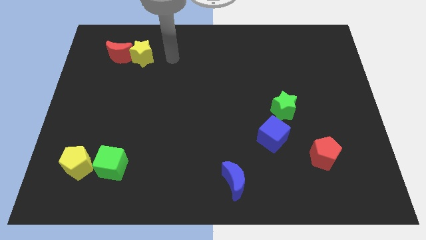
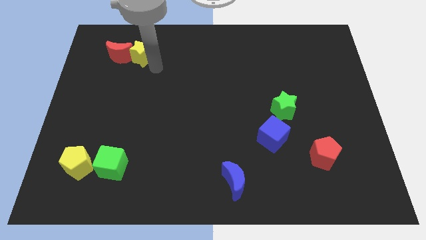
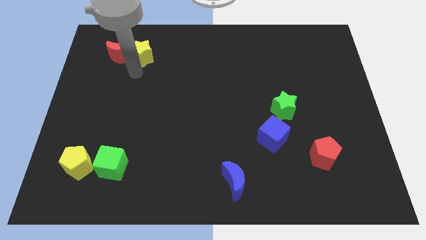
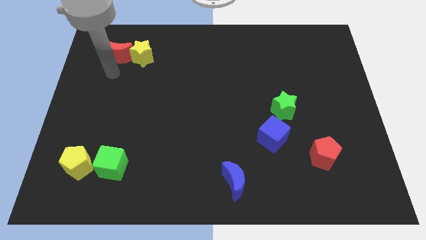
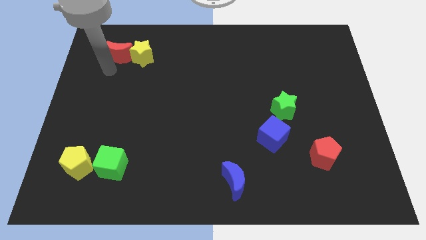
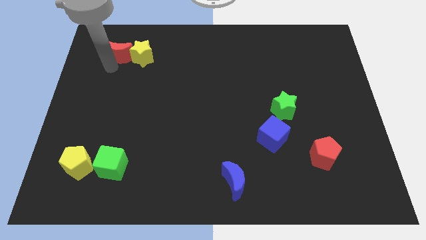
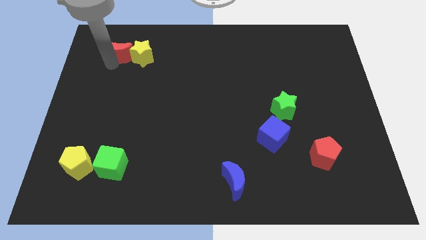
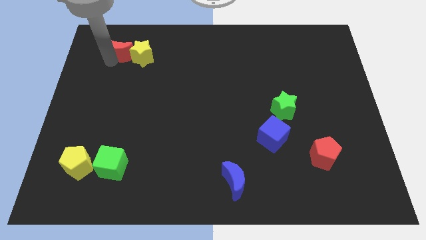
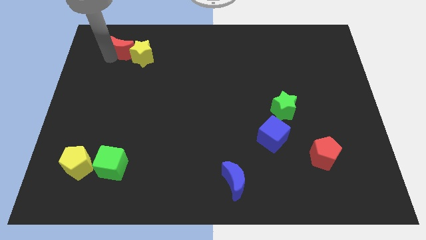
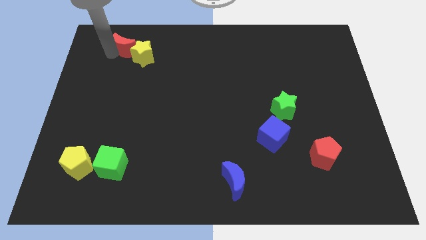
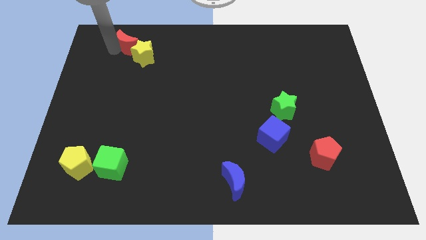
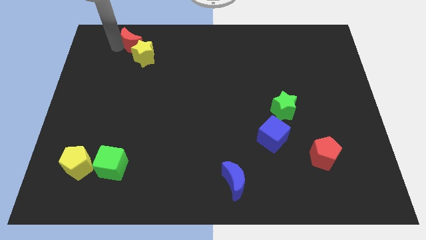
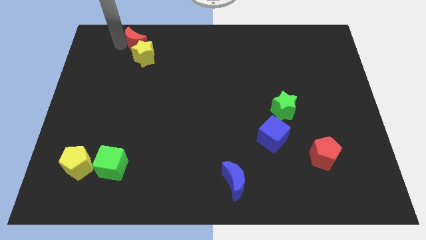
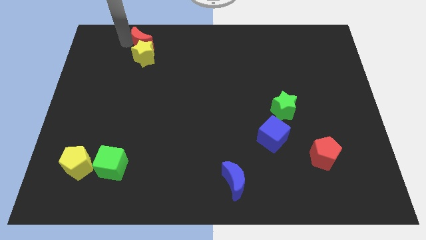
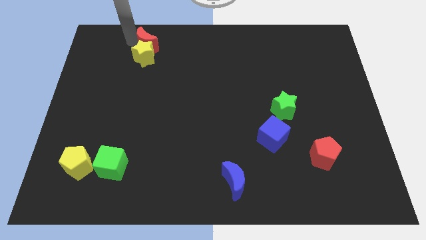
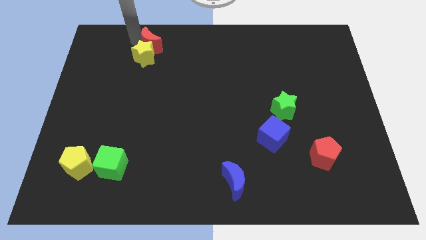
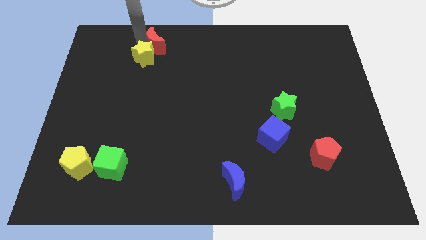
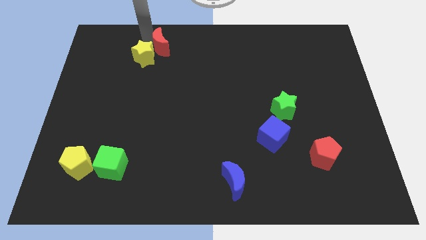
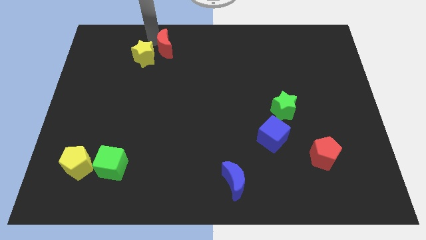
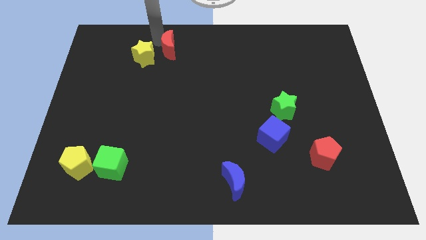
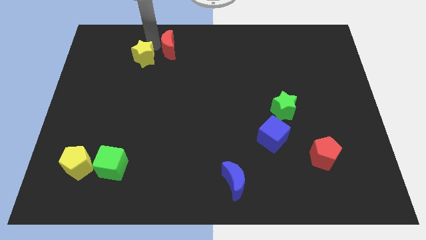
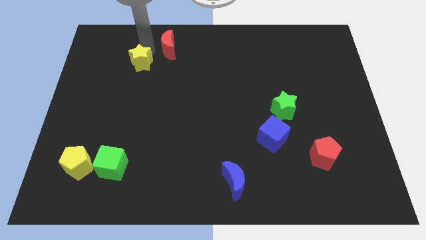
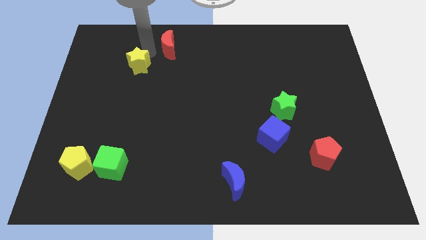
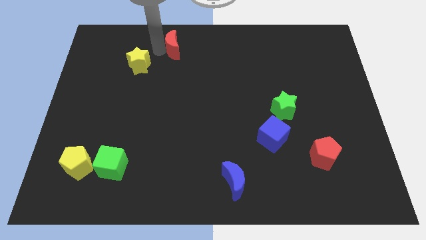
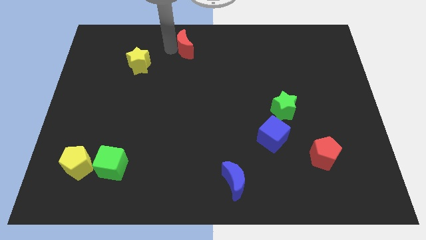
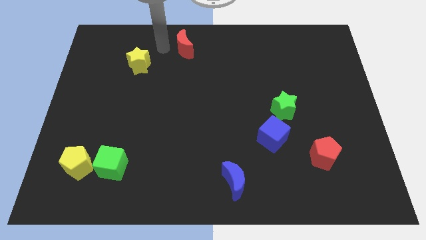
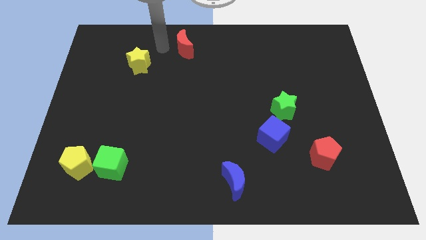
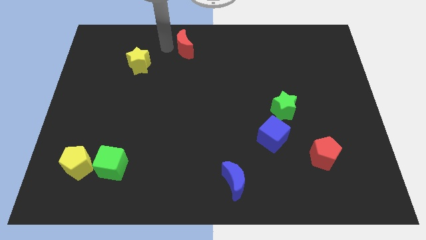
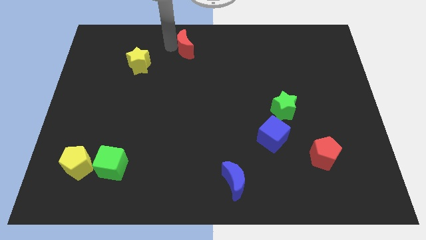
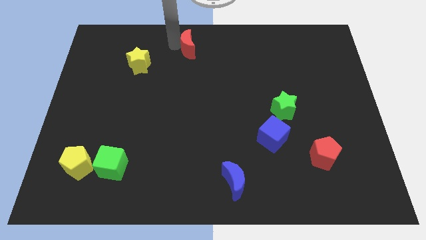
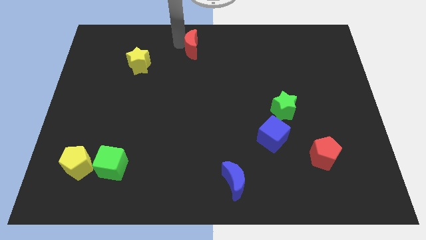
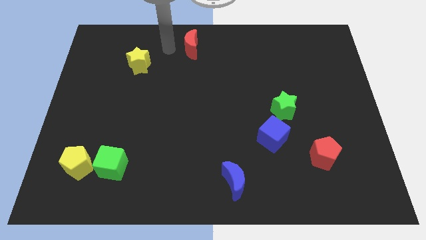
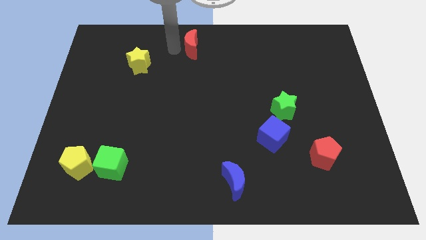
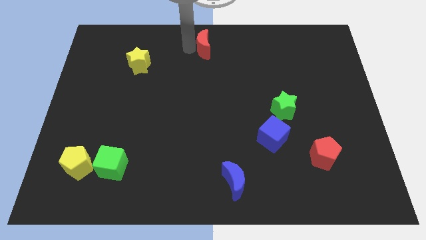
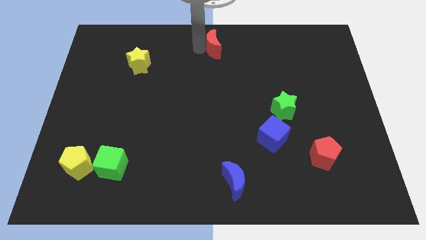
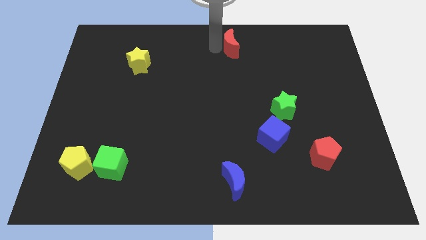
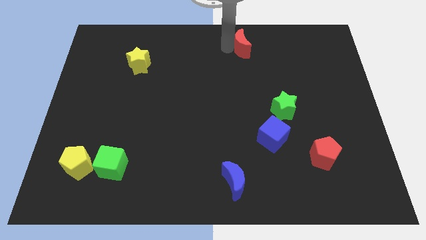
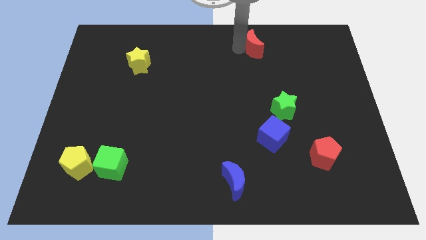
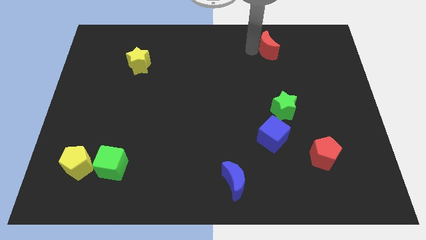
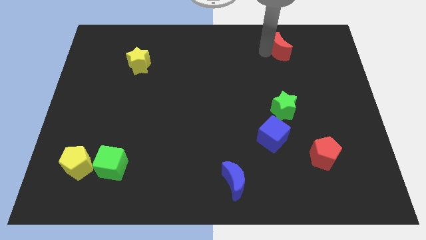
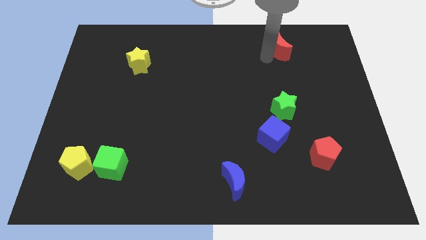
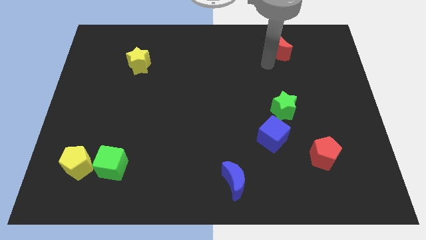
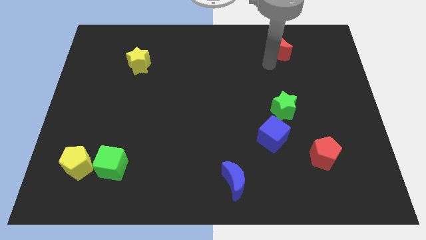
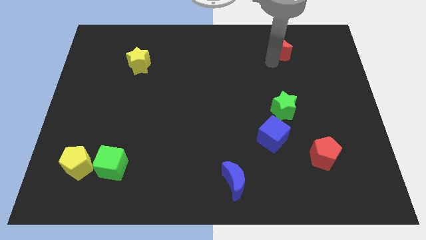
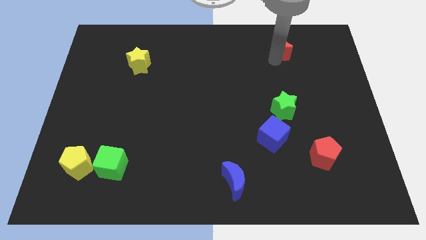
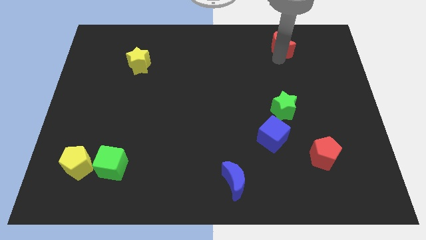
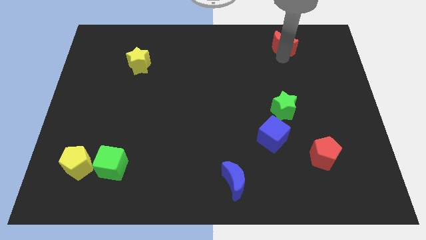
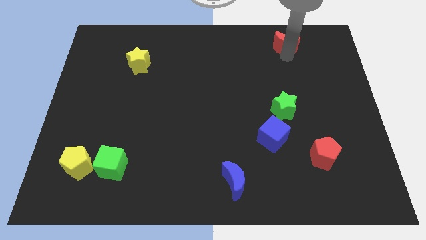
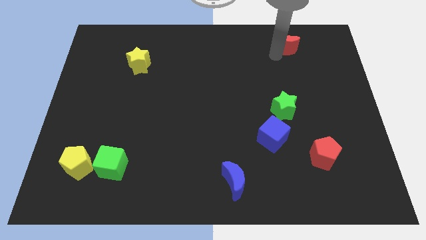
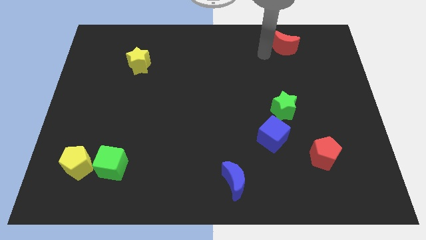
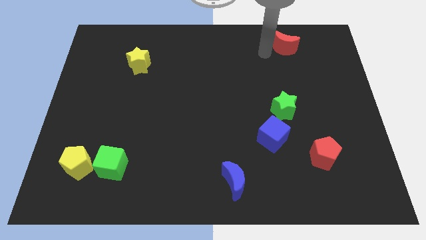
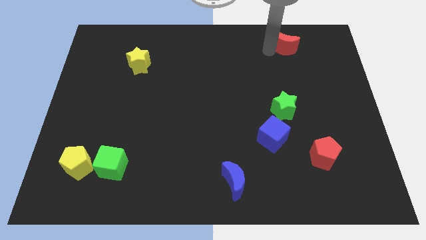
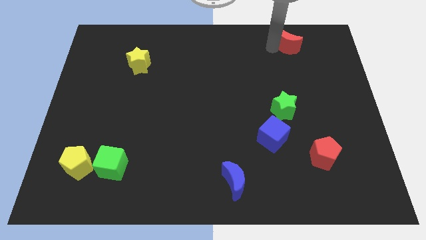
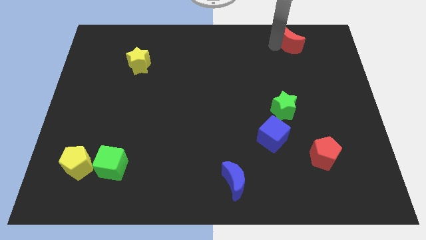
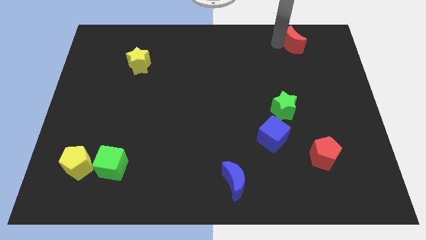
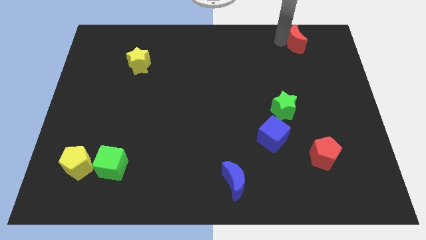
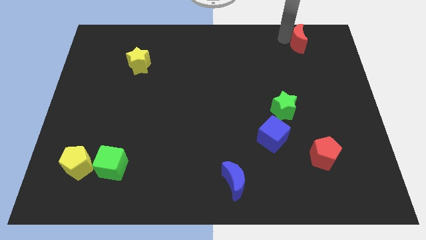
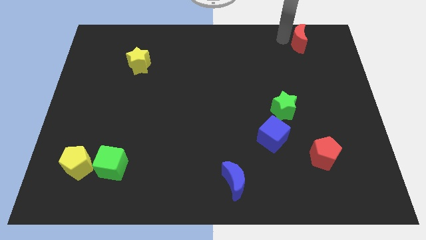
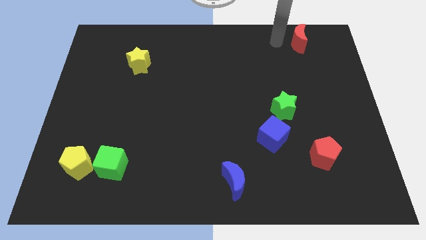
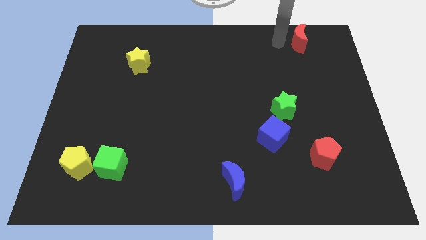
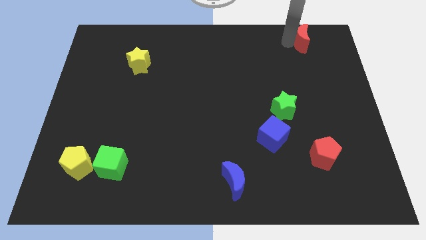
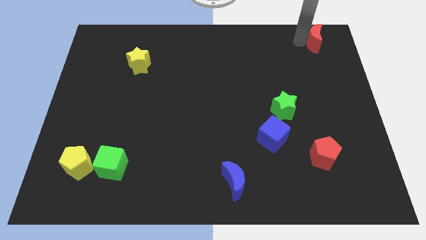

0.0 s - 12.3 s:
slide the red moon to the top right of the board
